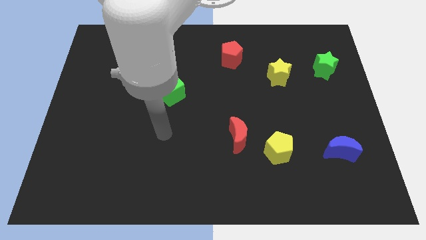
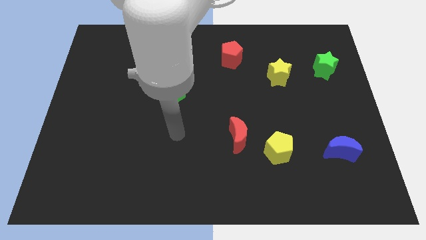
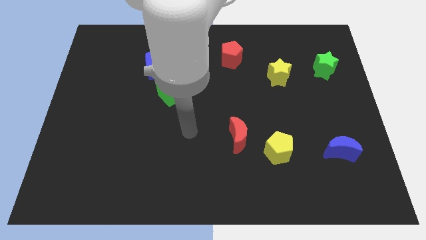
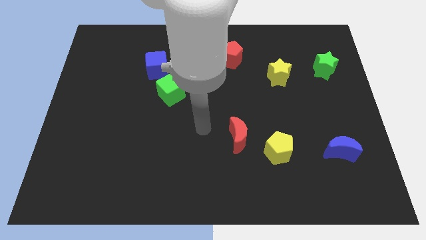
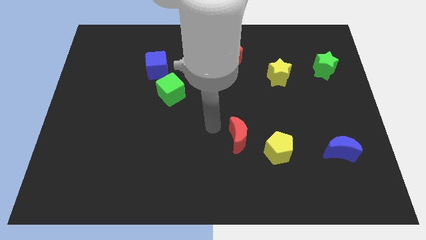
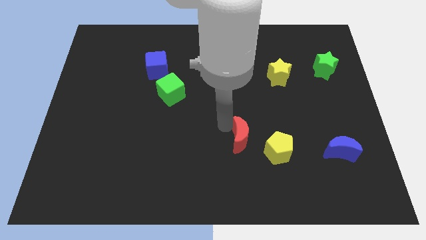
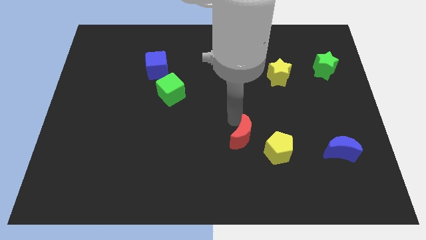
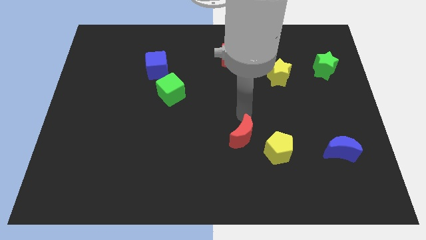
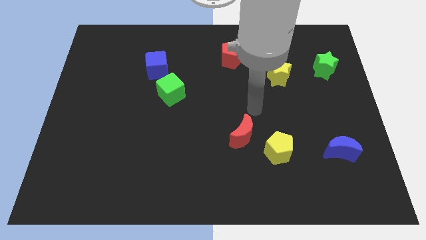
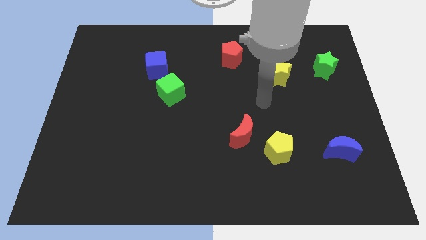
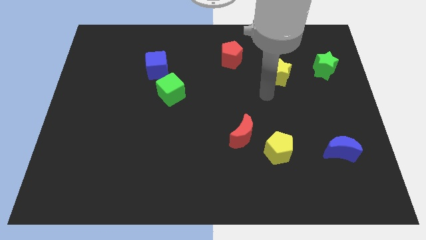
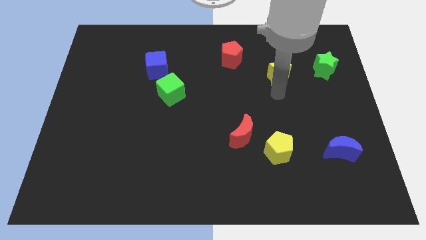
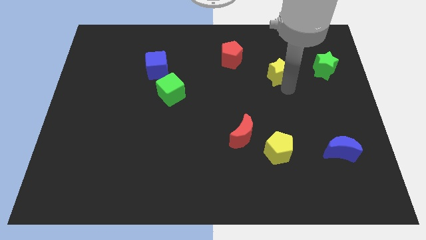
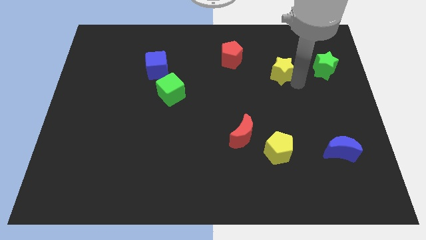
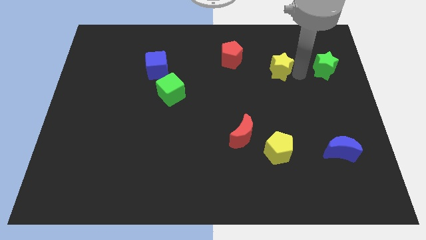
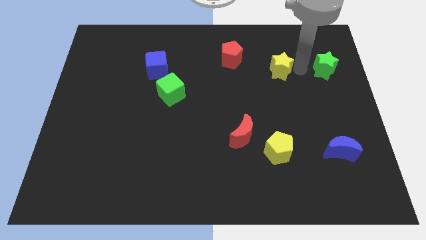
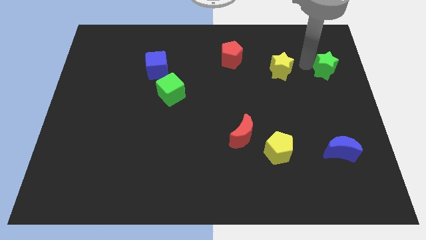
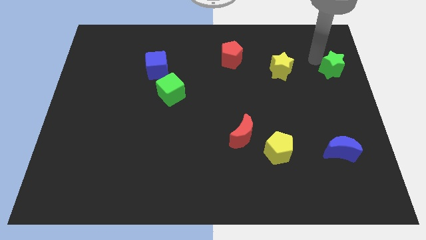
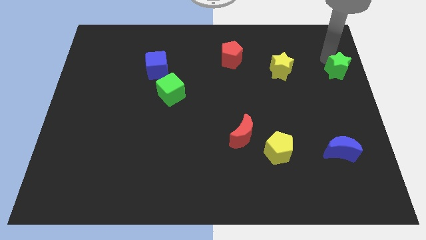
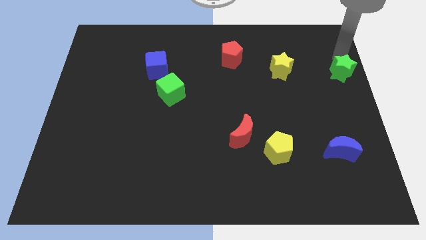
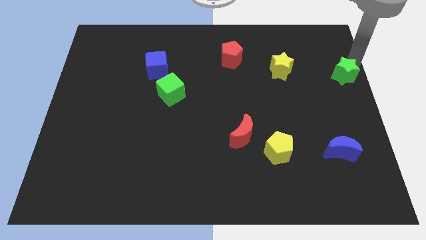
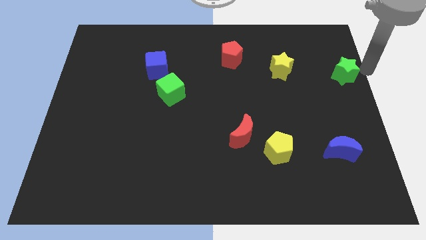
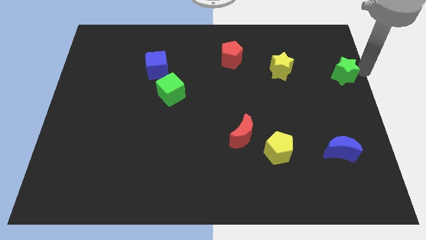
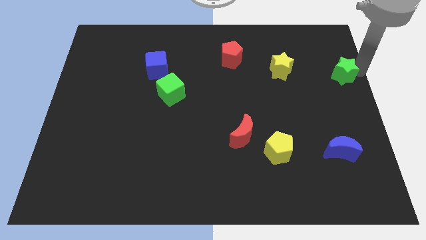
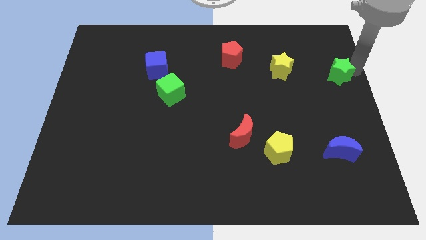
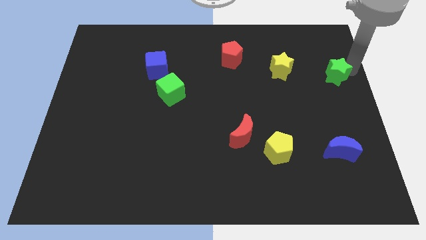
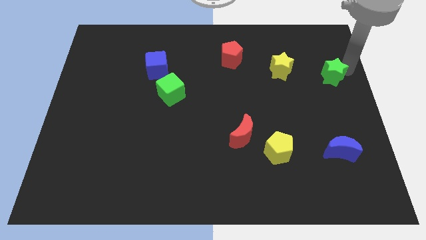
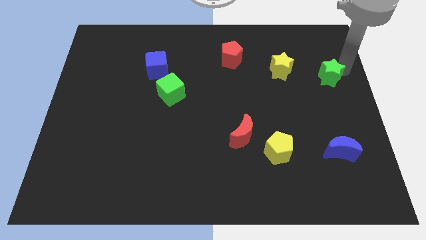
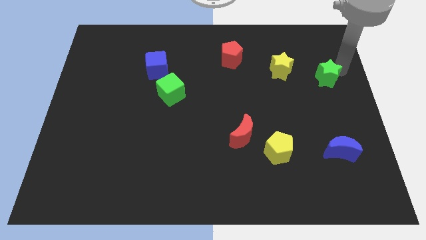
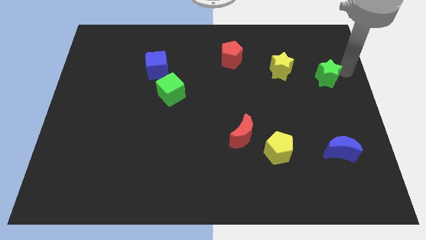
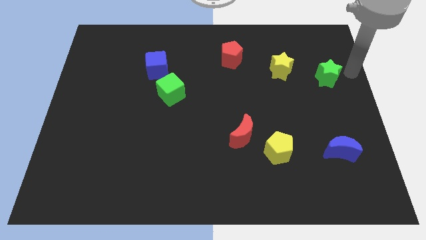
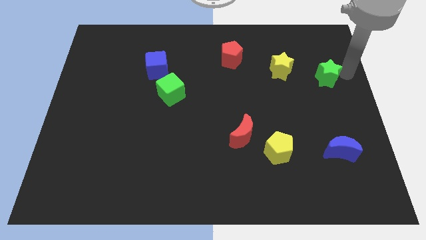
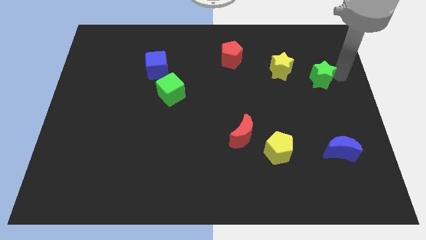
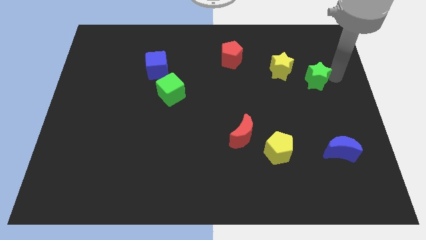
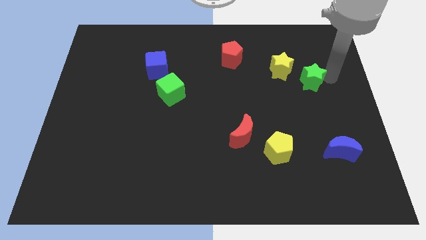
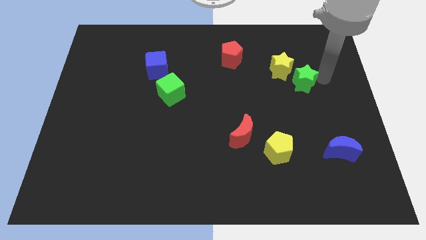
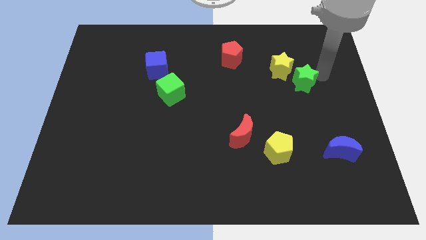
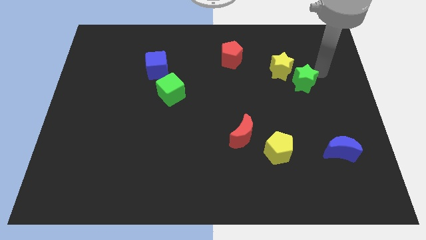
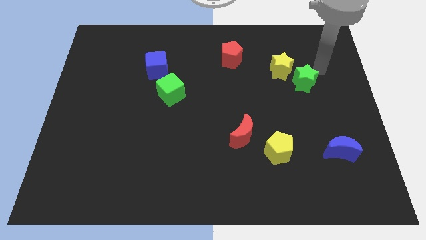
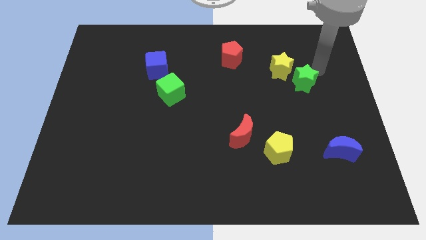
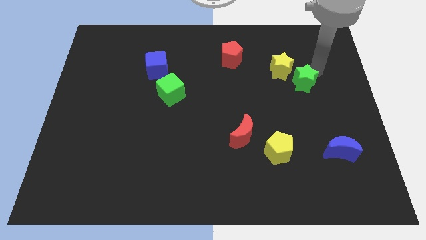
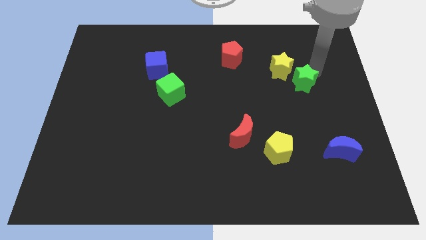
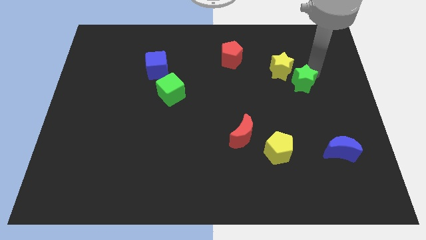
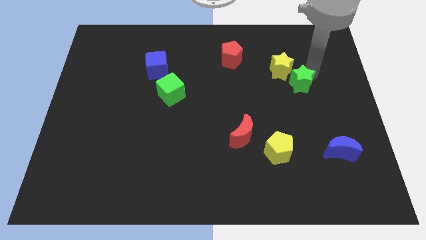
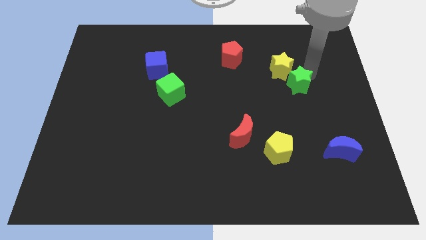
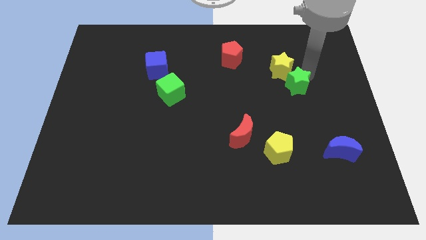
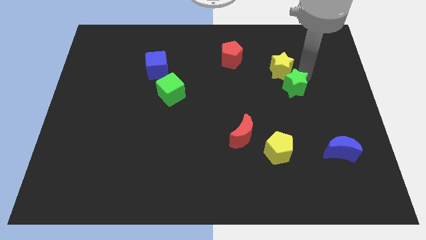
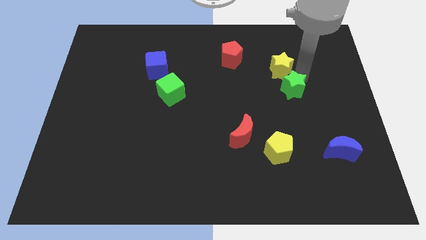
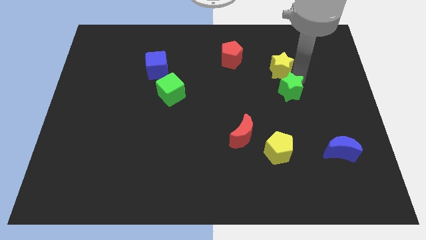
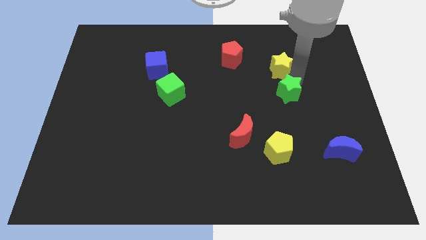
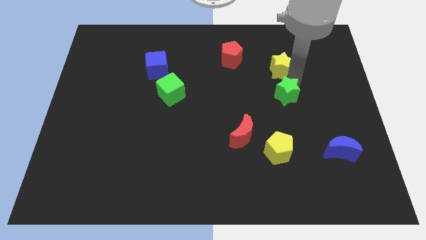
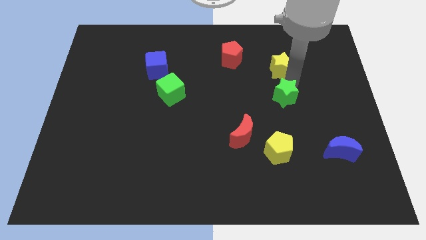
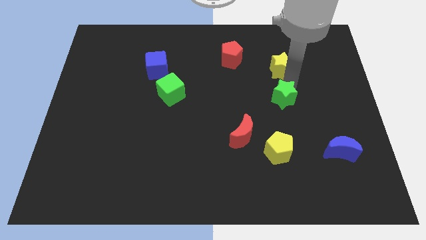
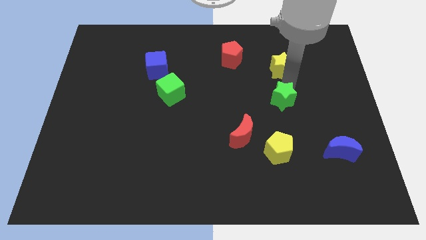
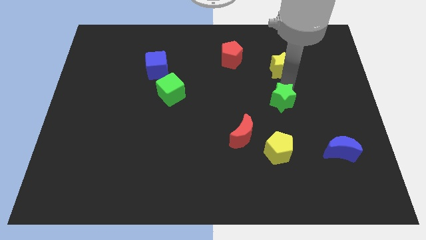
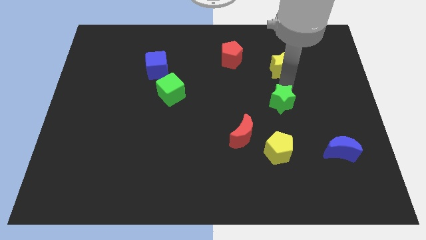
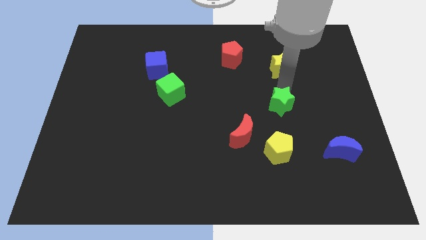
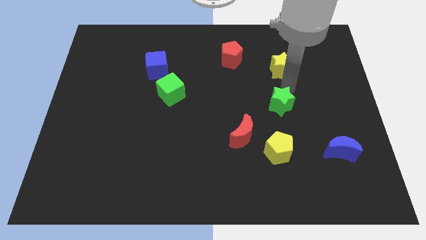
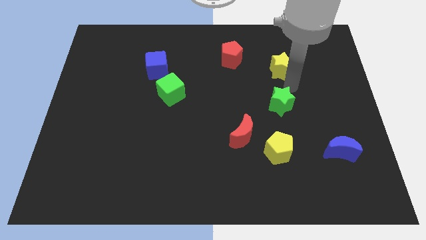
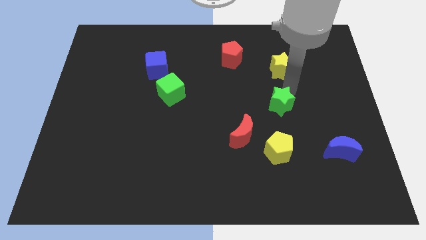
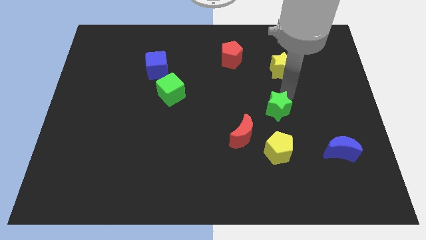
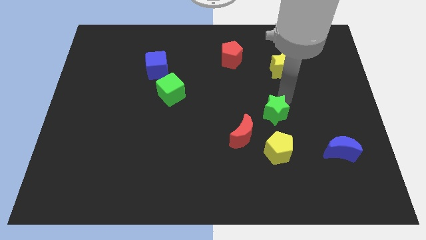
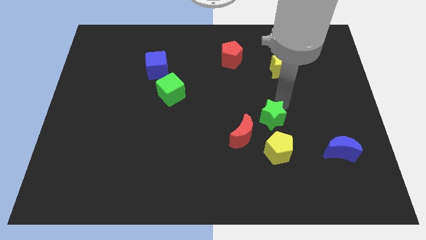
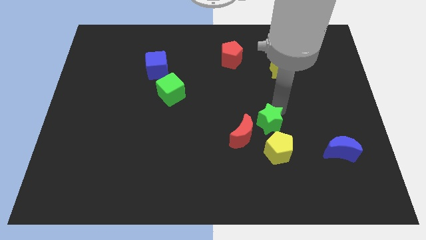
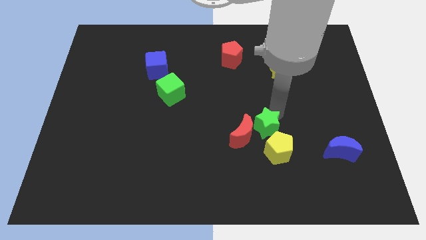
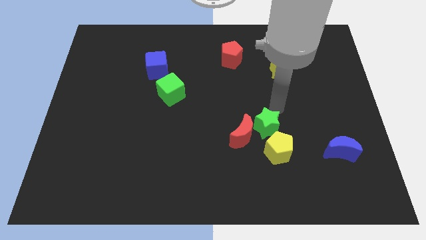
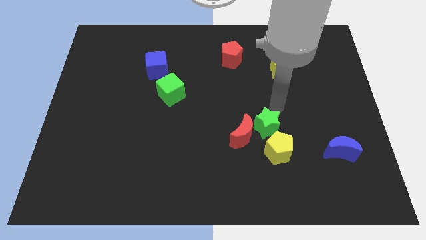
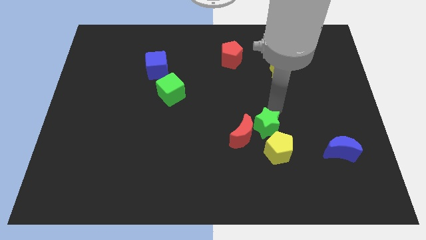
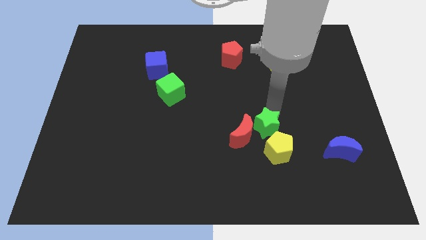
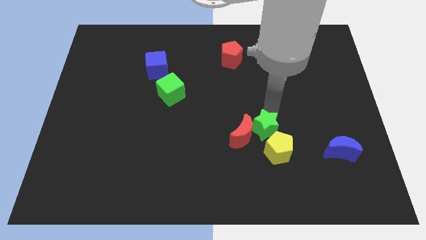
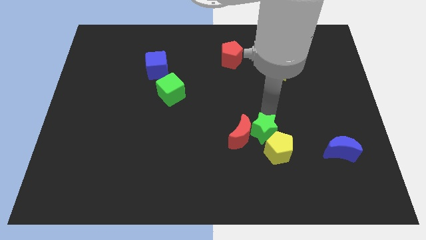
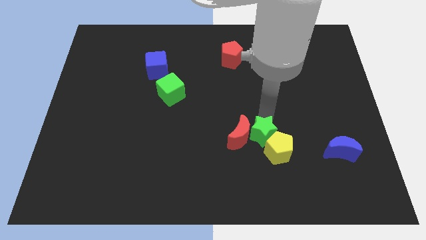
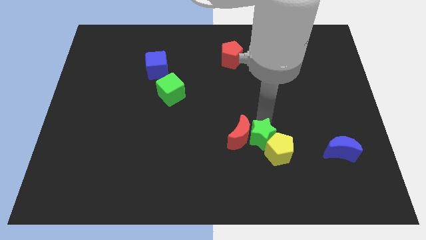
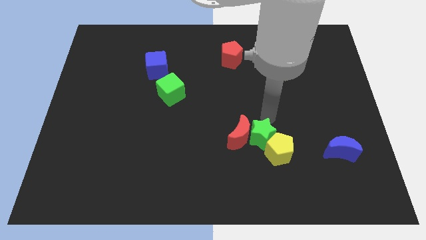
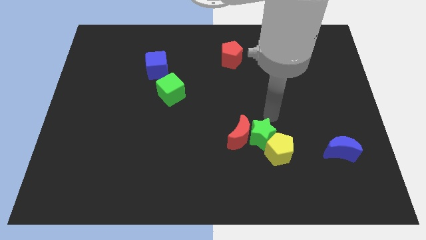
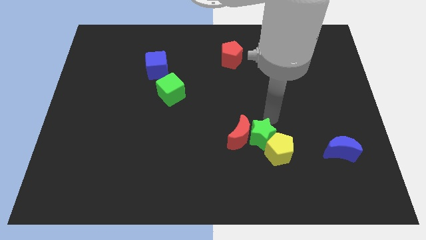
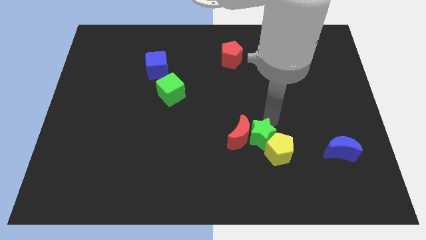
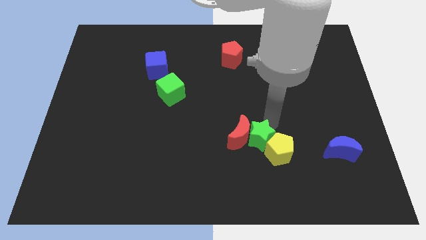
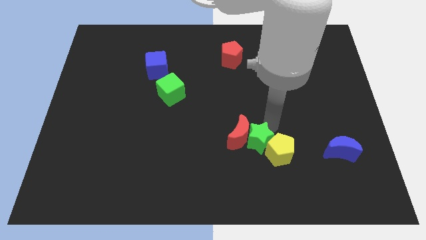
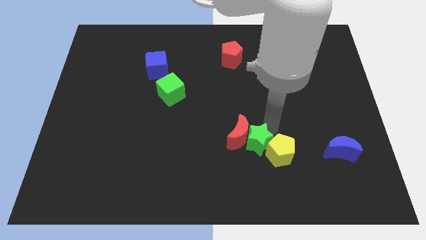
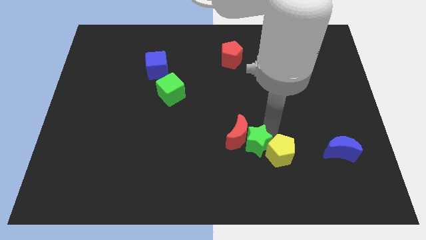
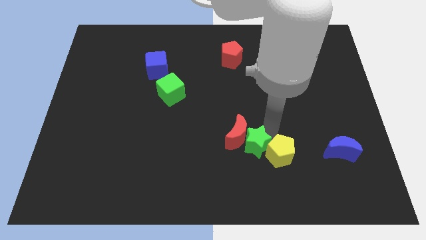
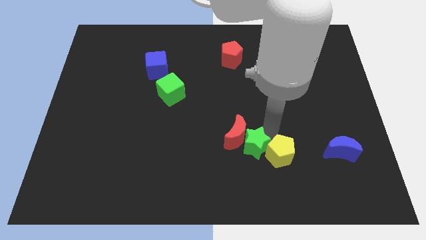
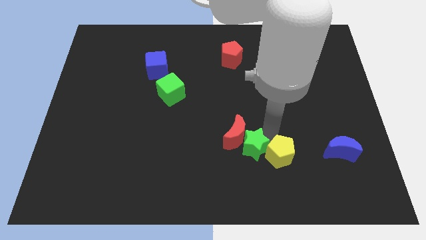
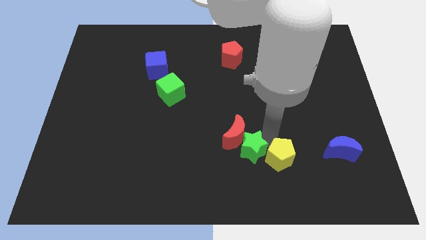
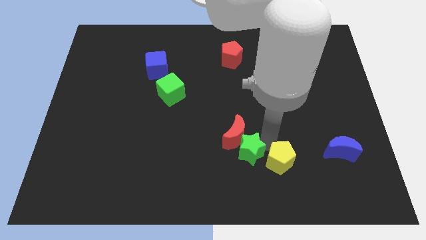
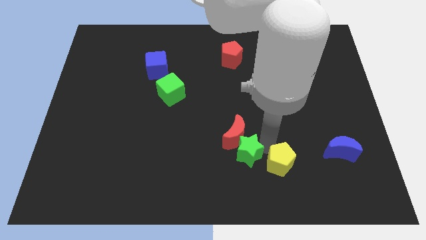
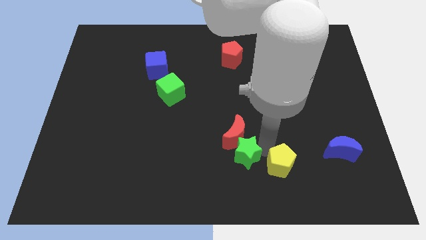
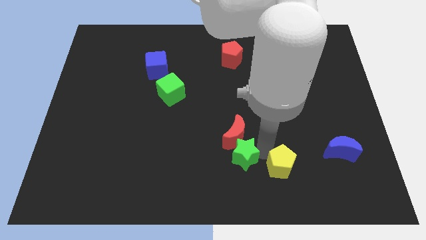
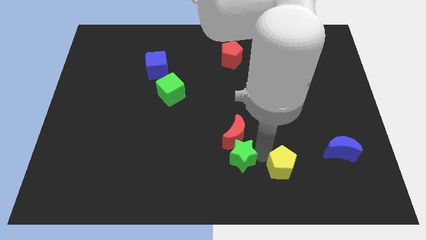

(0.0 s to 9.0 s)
put the green star to the bottom
